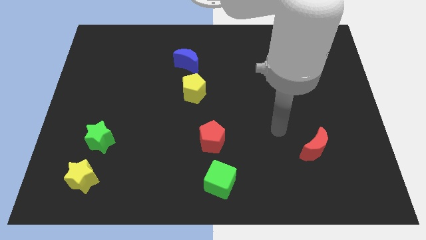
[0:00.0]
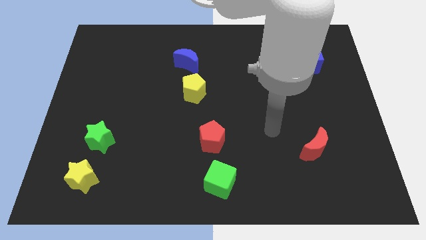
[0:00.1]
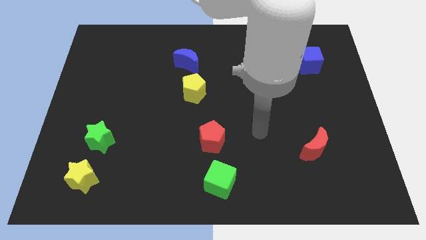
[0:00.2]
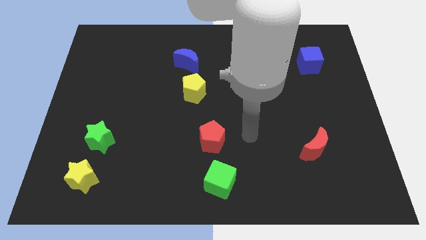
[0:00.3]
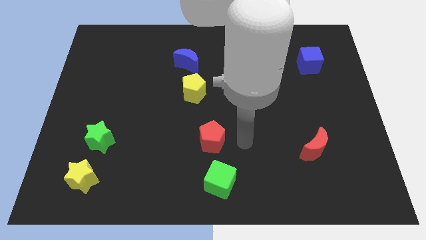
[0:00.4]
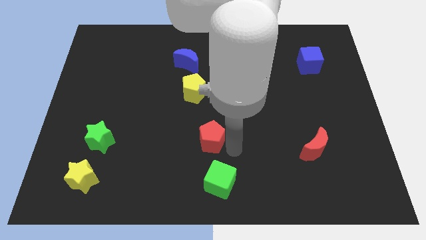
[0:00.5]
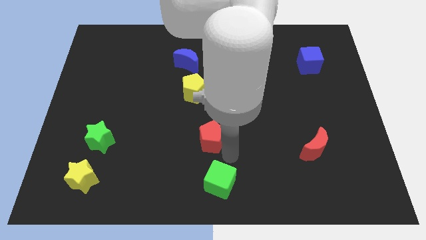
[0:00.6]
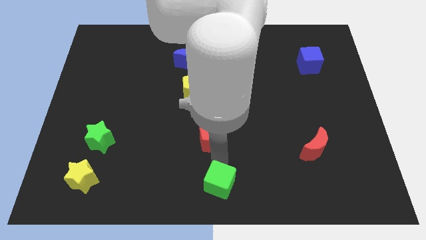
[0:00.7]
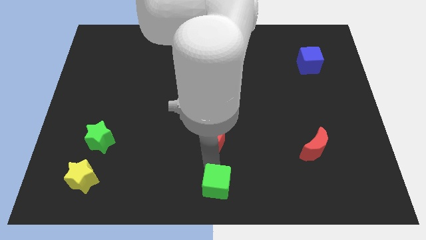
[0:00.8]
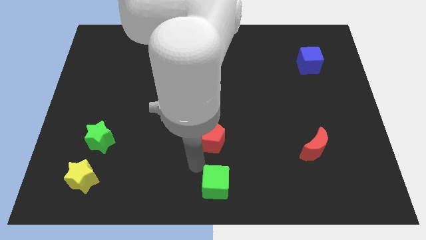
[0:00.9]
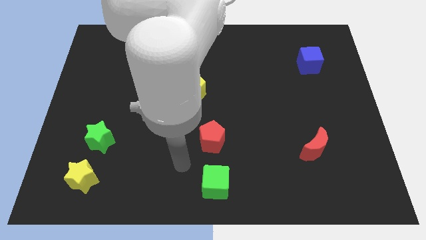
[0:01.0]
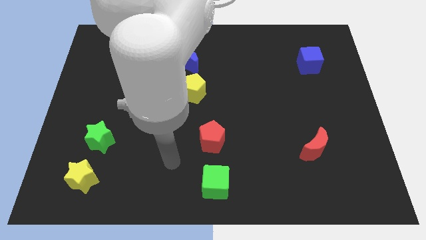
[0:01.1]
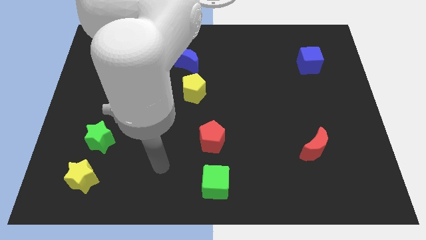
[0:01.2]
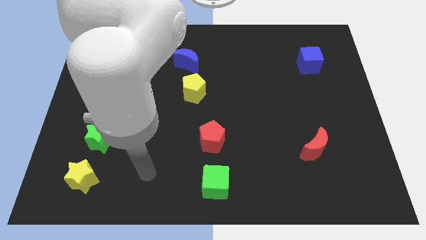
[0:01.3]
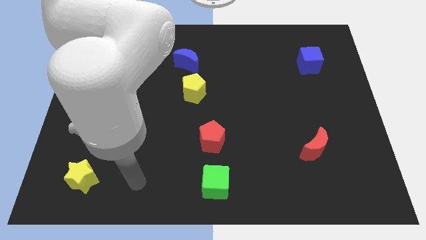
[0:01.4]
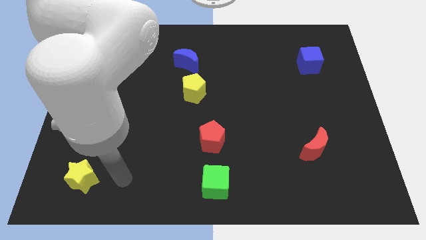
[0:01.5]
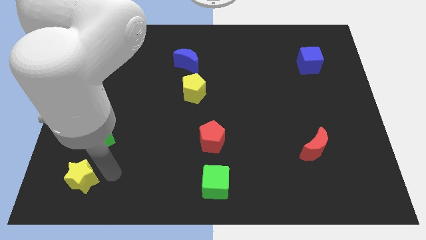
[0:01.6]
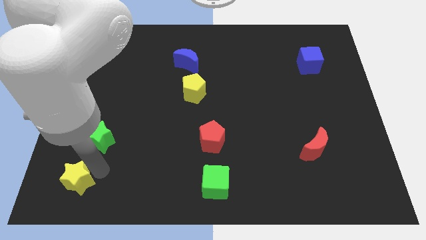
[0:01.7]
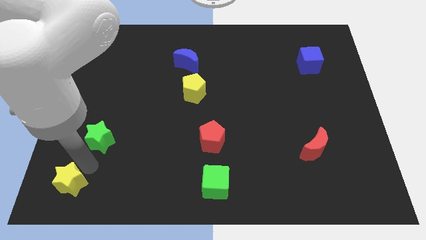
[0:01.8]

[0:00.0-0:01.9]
separate the green star from the yellow star

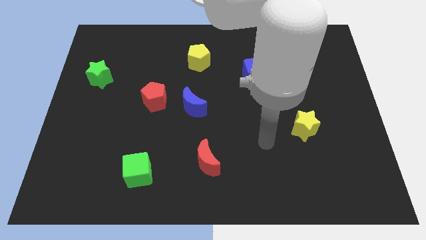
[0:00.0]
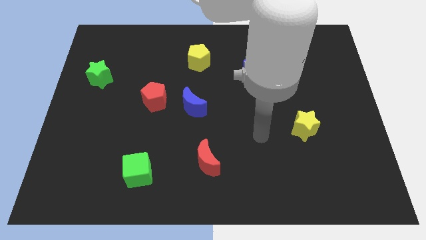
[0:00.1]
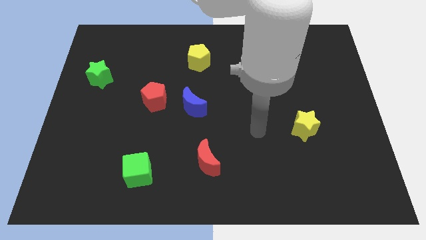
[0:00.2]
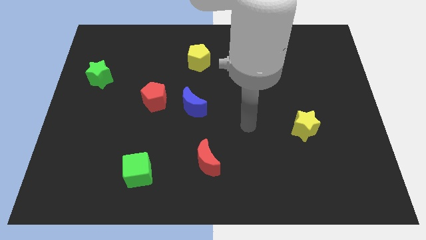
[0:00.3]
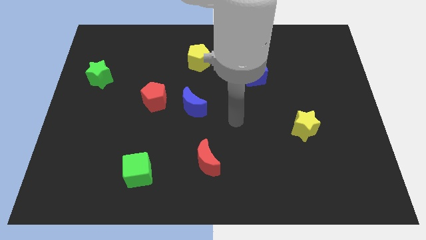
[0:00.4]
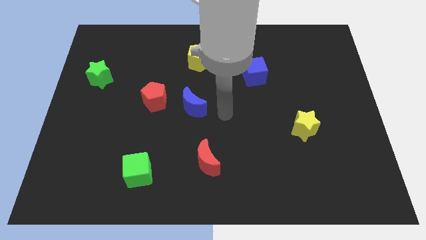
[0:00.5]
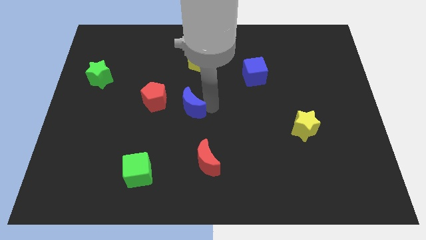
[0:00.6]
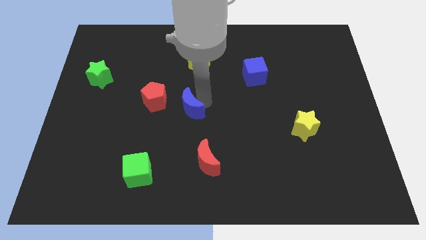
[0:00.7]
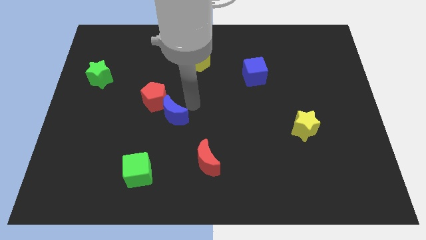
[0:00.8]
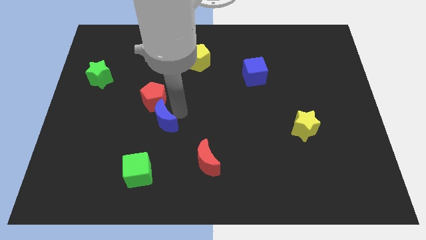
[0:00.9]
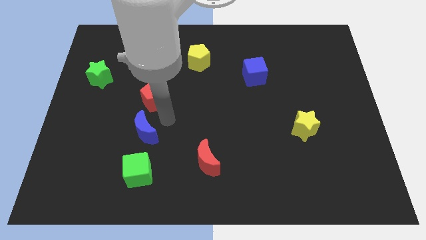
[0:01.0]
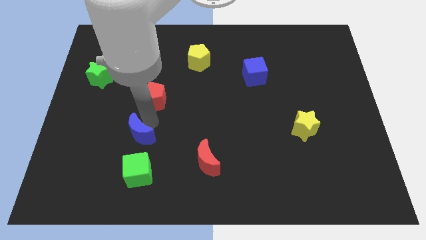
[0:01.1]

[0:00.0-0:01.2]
move the red pentagon away from the blue moon

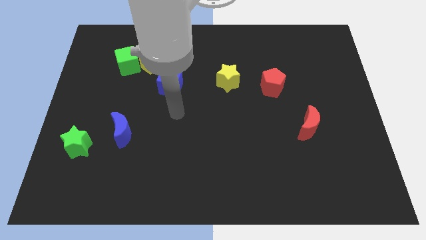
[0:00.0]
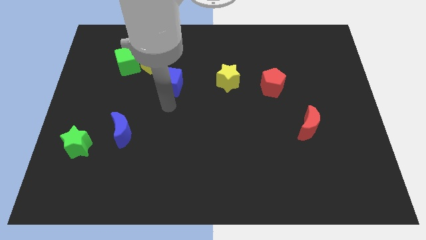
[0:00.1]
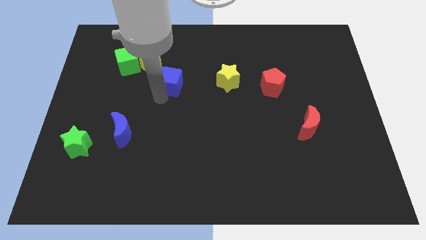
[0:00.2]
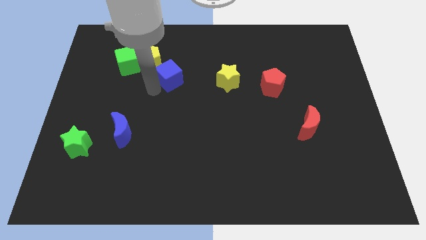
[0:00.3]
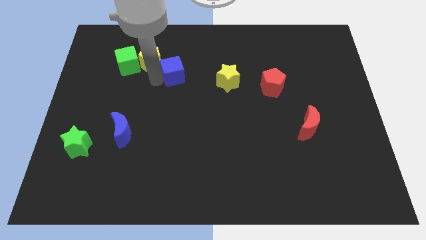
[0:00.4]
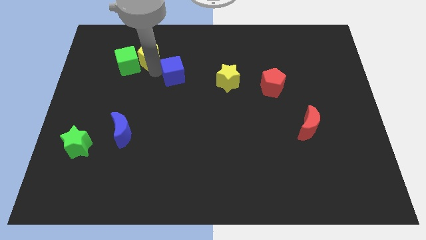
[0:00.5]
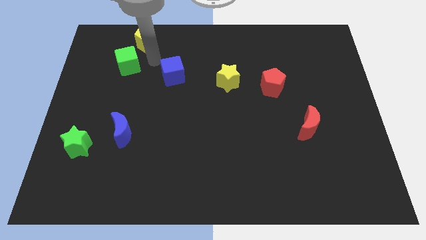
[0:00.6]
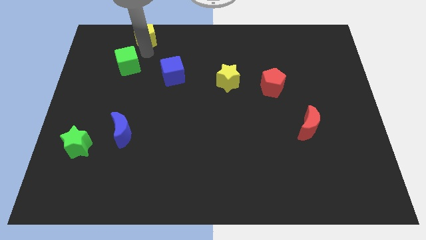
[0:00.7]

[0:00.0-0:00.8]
pull the green cube apart from the yellow pentagon

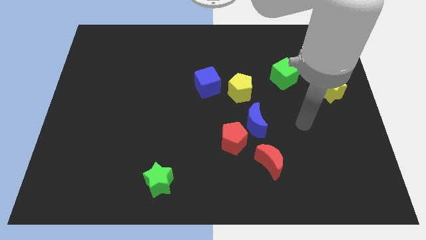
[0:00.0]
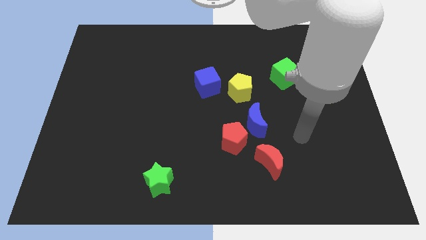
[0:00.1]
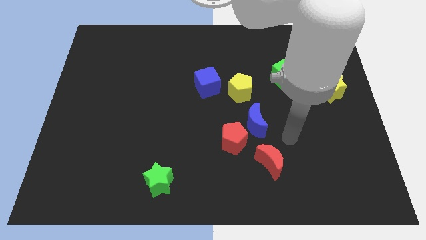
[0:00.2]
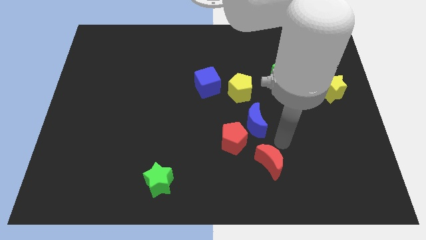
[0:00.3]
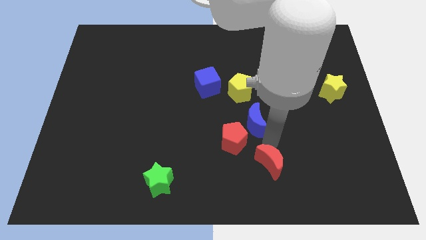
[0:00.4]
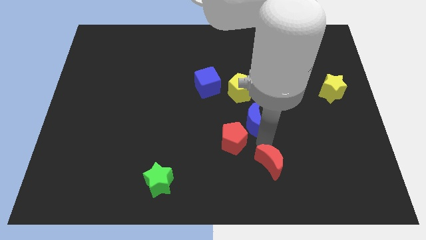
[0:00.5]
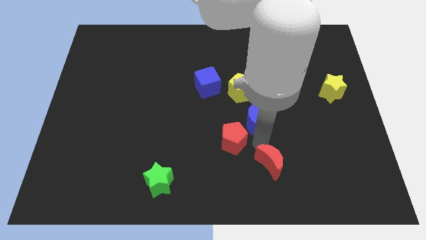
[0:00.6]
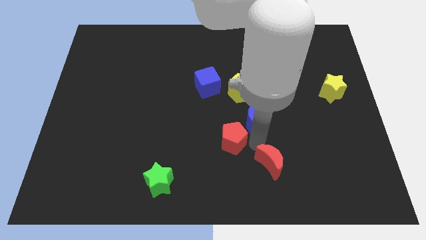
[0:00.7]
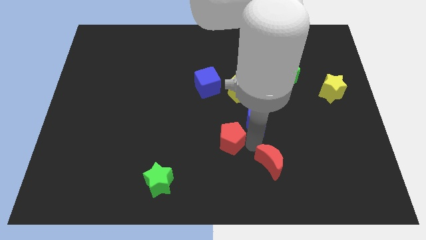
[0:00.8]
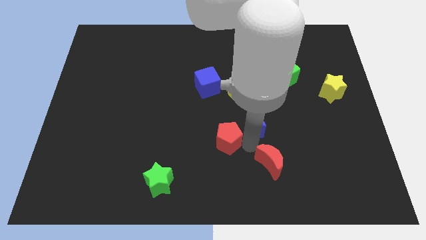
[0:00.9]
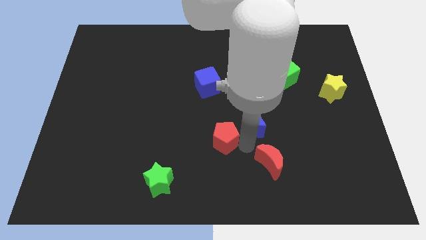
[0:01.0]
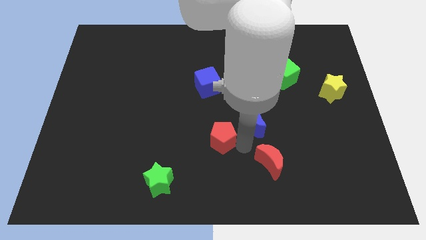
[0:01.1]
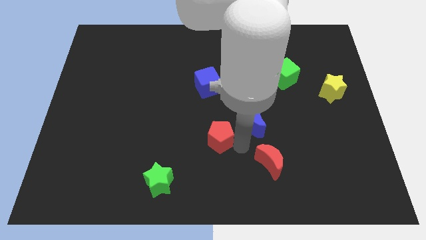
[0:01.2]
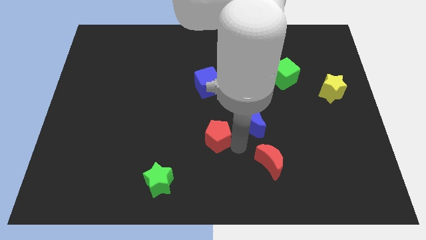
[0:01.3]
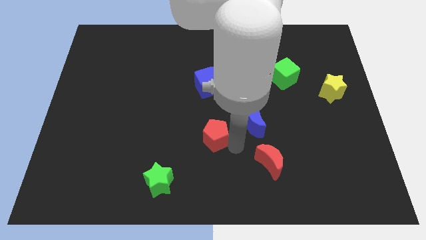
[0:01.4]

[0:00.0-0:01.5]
move the red pentagon away from the blue moon and red moon

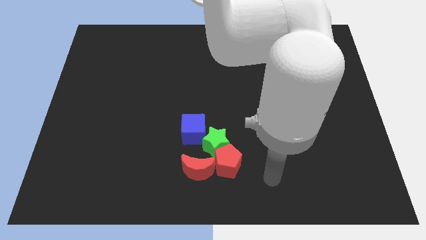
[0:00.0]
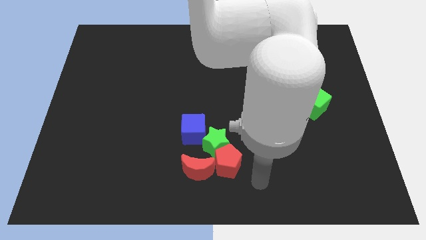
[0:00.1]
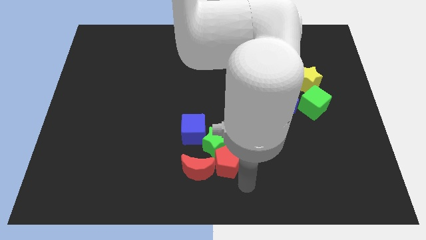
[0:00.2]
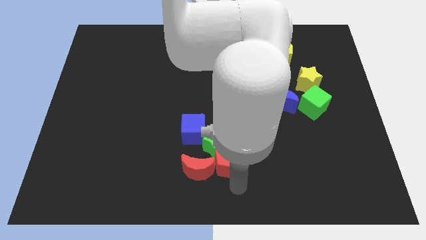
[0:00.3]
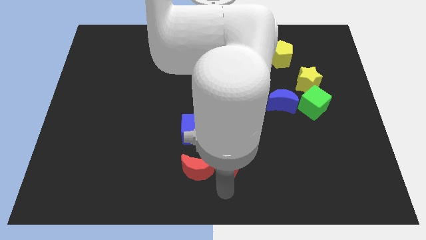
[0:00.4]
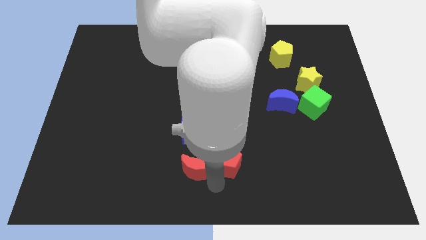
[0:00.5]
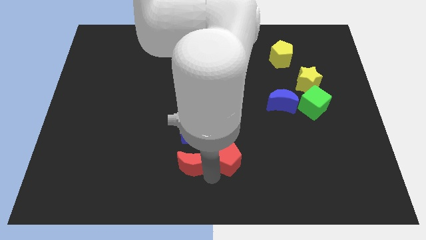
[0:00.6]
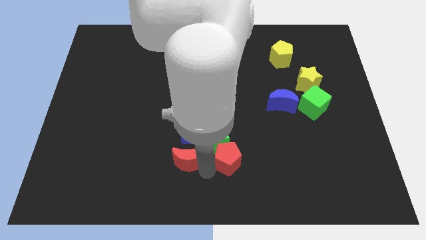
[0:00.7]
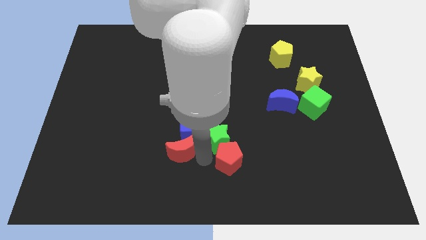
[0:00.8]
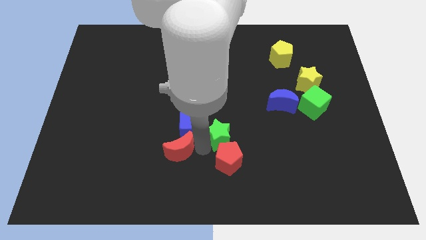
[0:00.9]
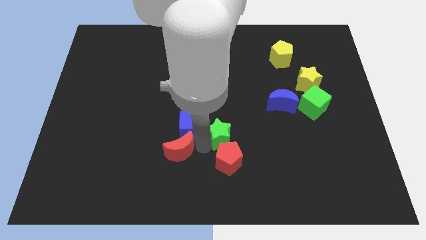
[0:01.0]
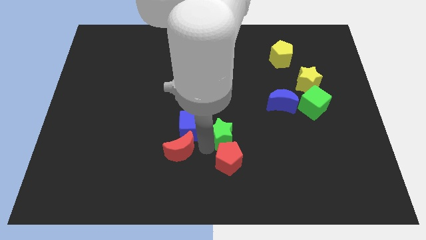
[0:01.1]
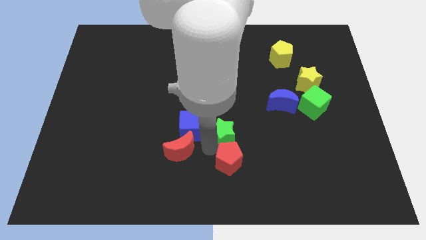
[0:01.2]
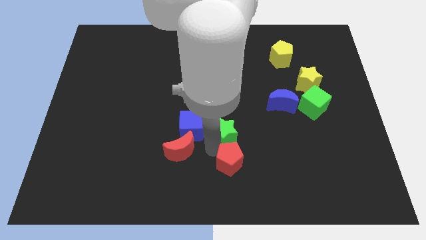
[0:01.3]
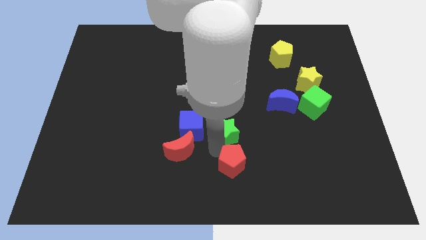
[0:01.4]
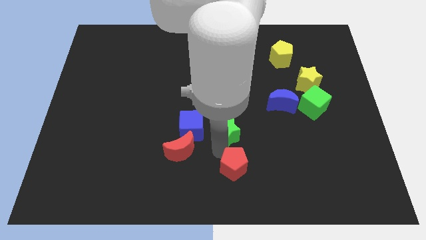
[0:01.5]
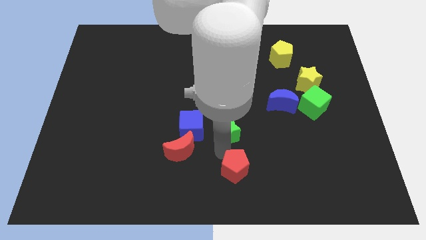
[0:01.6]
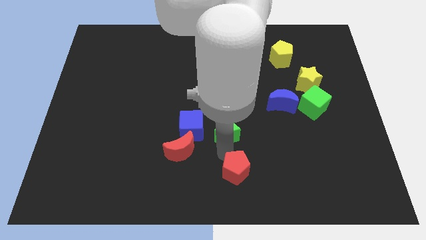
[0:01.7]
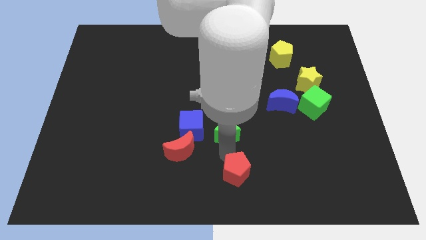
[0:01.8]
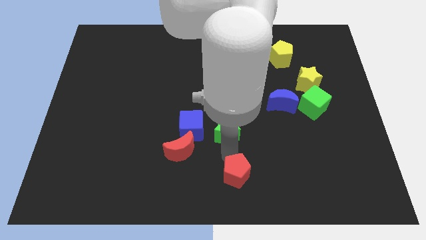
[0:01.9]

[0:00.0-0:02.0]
move the red pentagon away from the green star and red moon

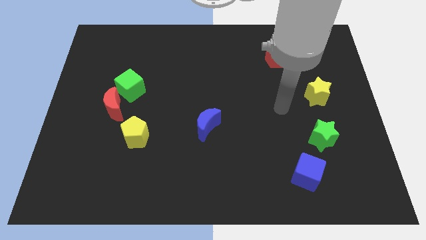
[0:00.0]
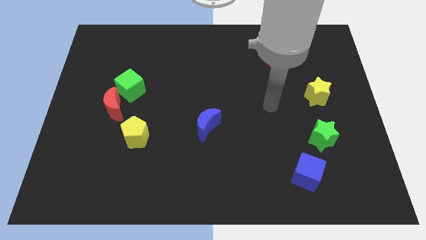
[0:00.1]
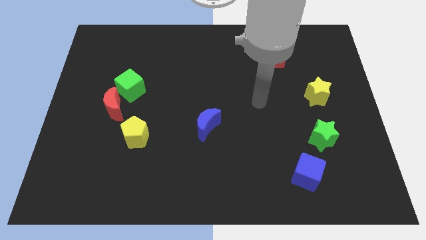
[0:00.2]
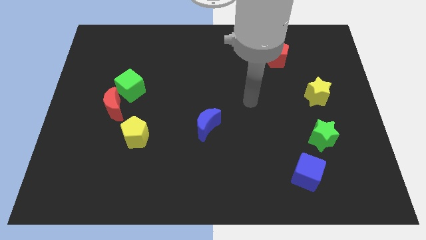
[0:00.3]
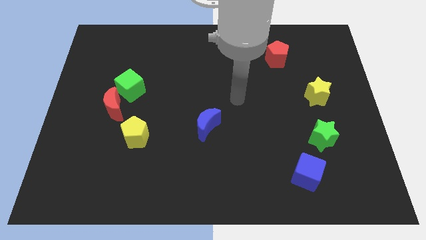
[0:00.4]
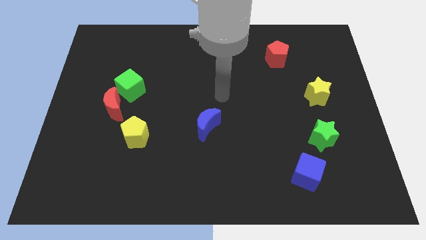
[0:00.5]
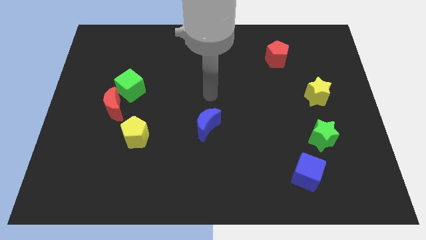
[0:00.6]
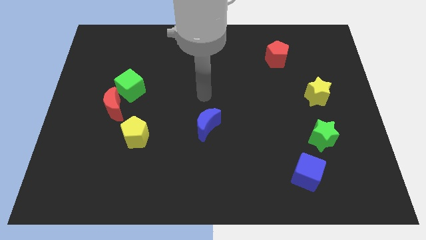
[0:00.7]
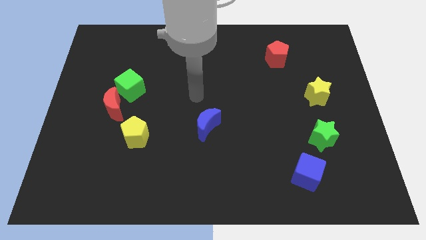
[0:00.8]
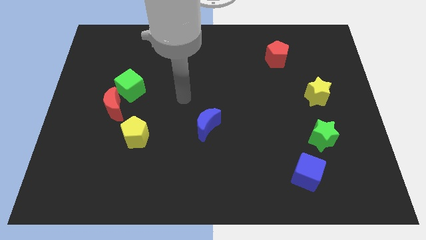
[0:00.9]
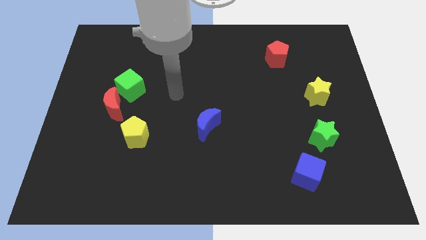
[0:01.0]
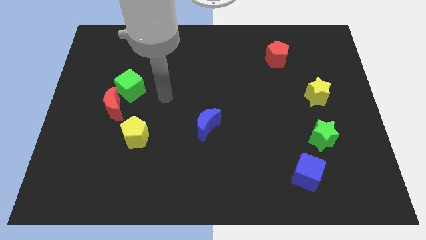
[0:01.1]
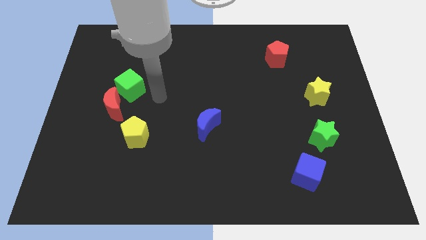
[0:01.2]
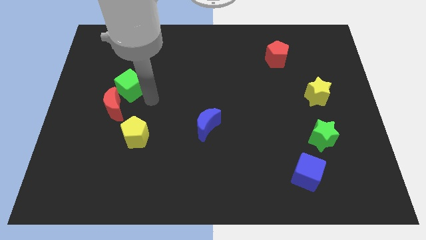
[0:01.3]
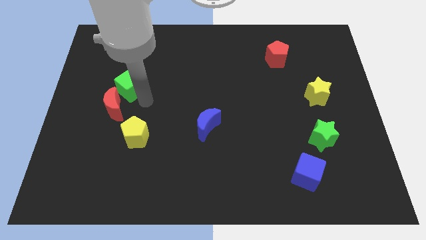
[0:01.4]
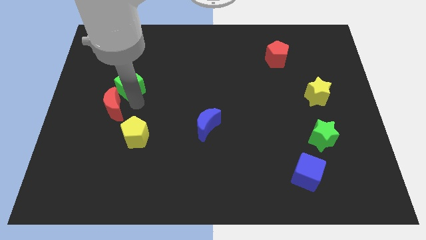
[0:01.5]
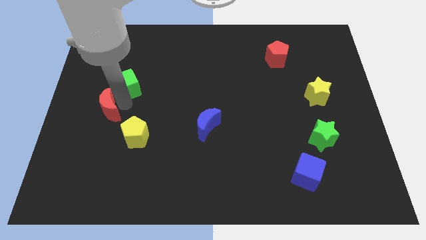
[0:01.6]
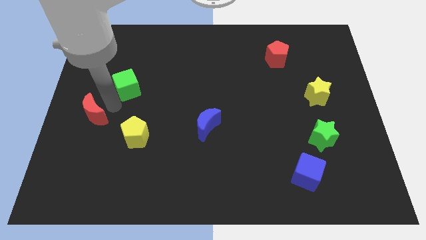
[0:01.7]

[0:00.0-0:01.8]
pull the green cube apart from the red moon
